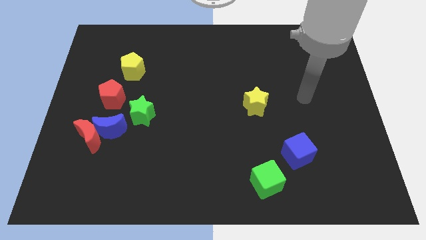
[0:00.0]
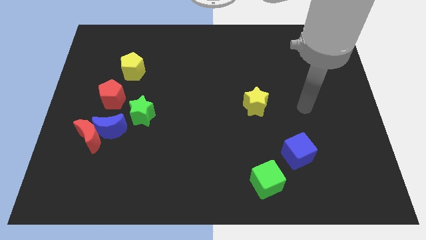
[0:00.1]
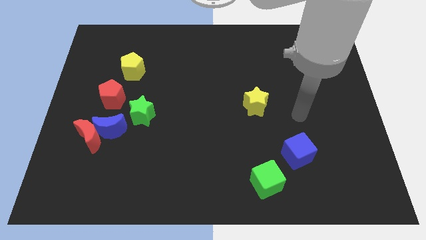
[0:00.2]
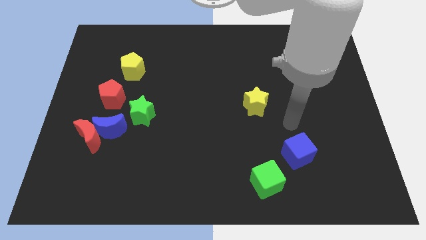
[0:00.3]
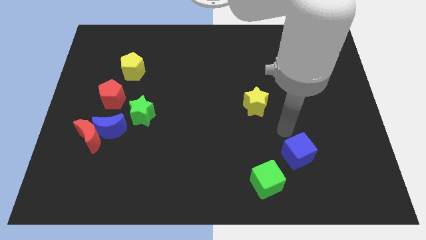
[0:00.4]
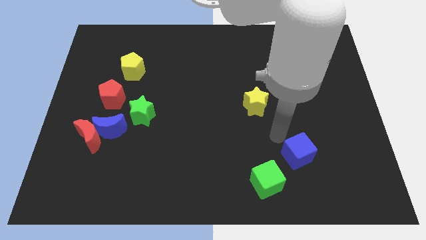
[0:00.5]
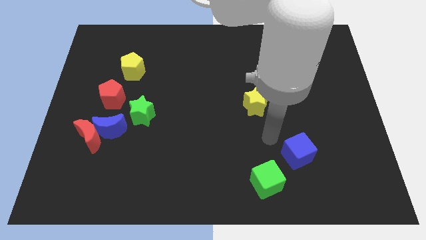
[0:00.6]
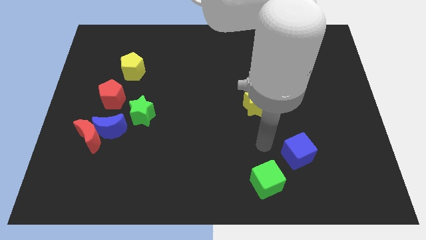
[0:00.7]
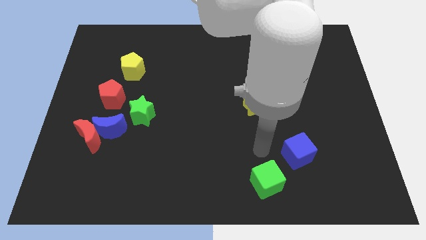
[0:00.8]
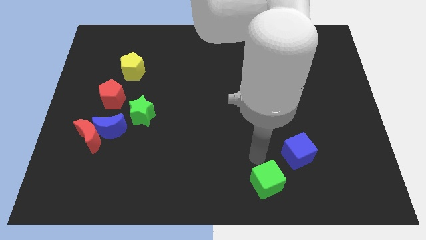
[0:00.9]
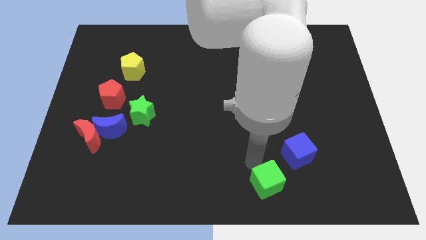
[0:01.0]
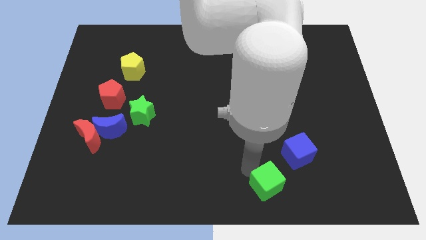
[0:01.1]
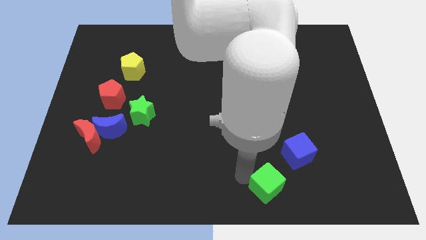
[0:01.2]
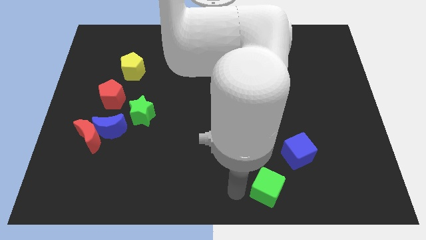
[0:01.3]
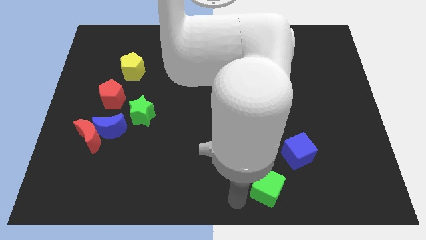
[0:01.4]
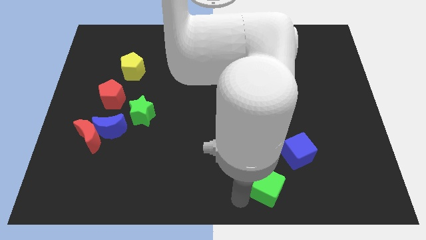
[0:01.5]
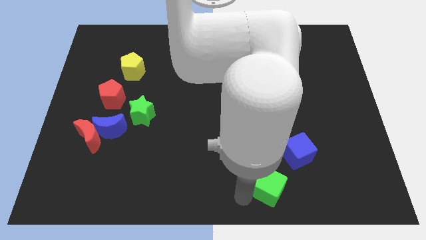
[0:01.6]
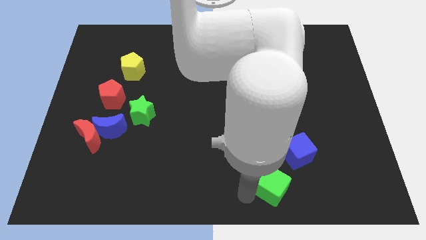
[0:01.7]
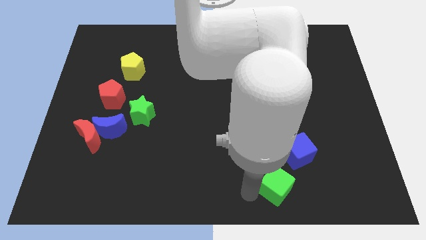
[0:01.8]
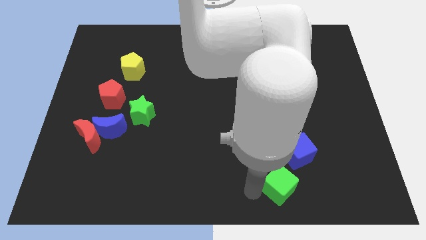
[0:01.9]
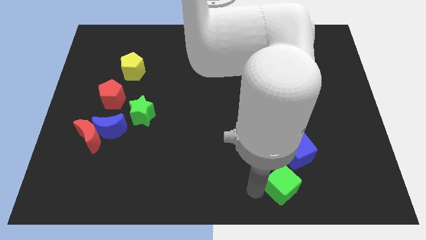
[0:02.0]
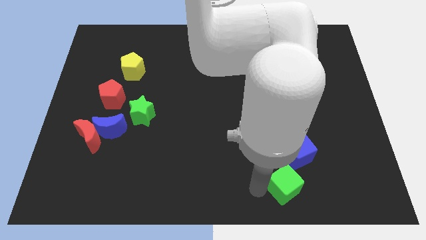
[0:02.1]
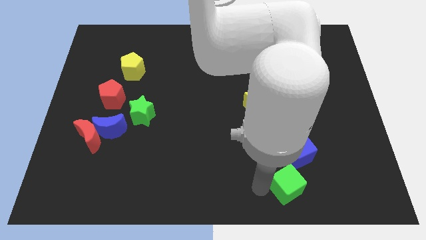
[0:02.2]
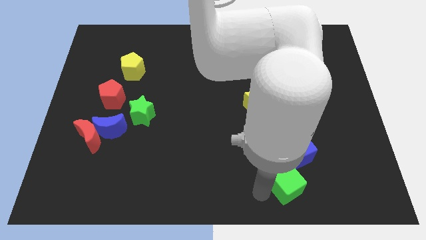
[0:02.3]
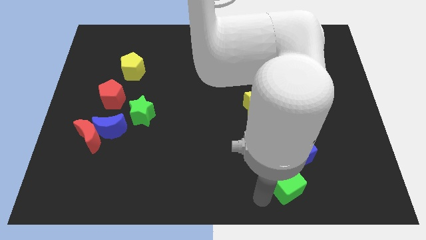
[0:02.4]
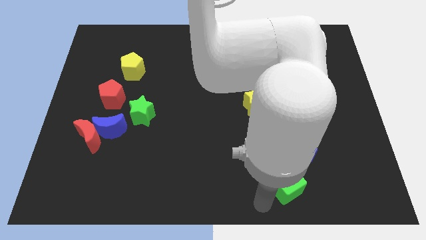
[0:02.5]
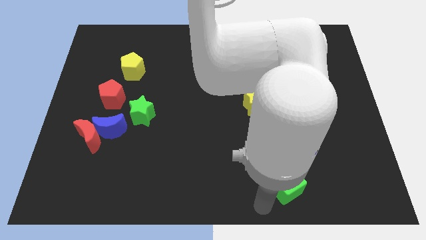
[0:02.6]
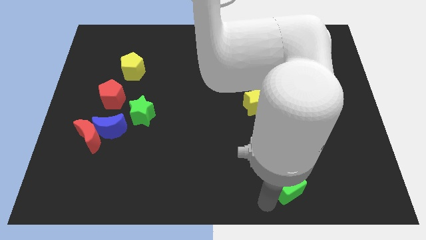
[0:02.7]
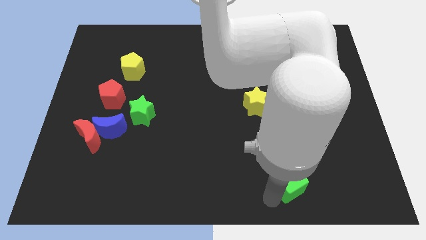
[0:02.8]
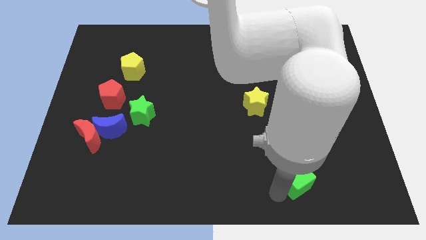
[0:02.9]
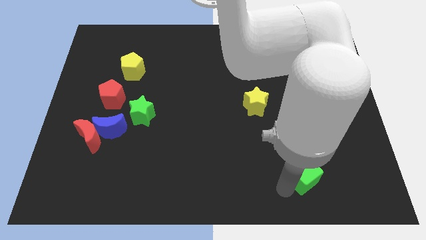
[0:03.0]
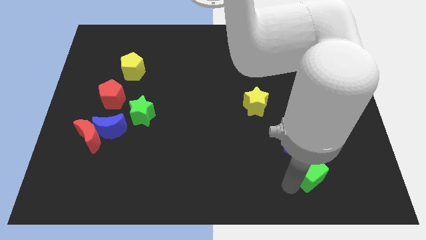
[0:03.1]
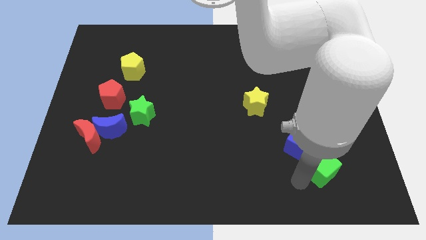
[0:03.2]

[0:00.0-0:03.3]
slightly slide the green cube up and to the right

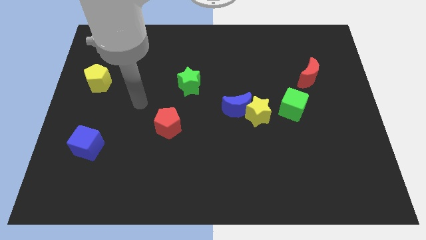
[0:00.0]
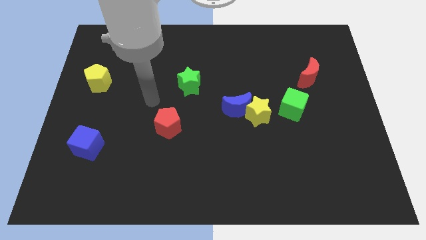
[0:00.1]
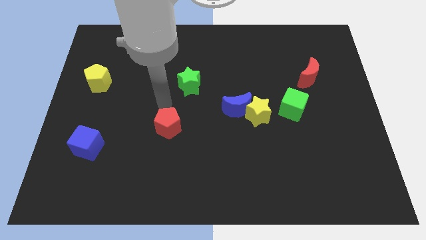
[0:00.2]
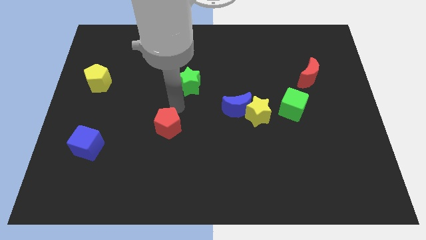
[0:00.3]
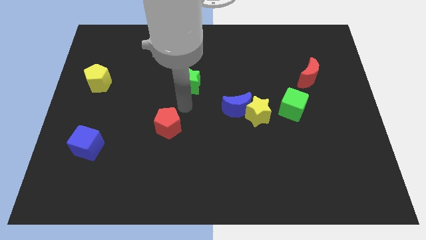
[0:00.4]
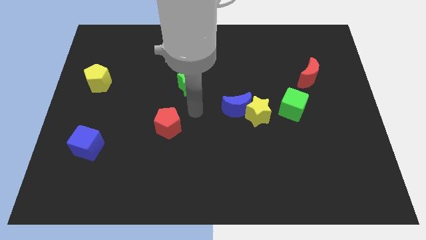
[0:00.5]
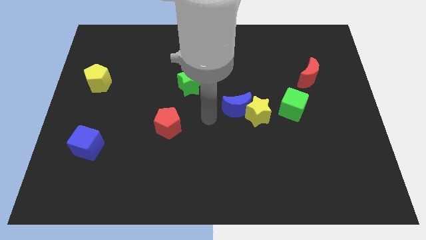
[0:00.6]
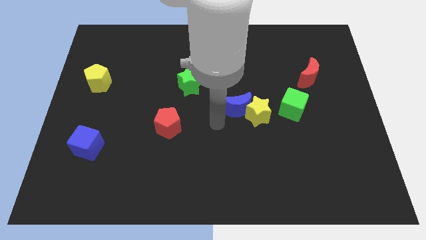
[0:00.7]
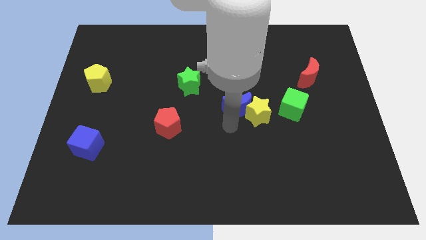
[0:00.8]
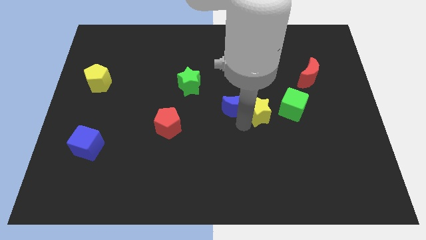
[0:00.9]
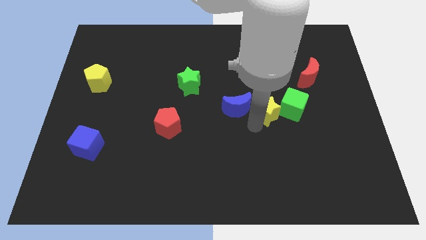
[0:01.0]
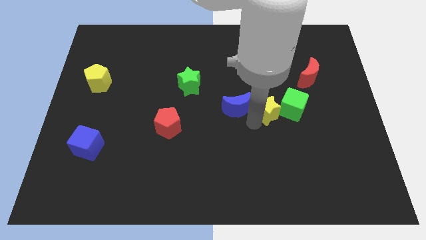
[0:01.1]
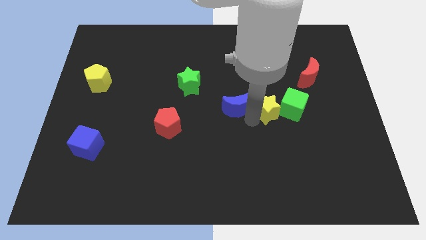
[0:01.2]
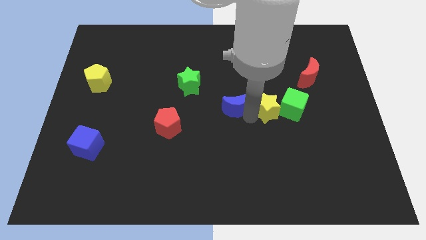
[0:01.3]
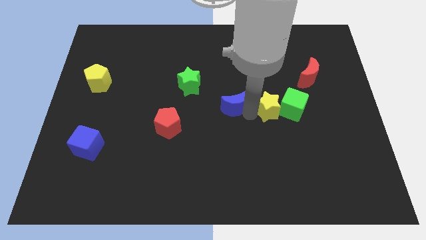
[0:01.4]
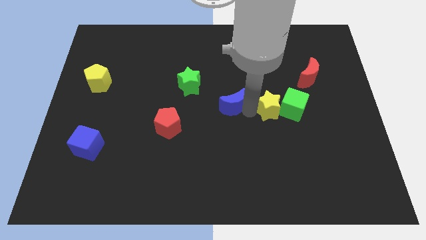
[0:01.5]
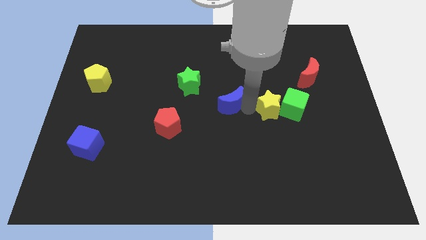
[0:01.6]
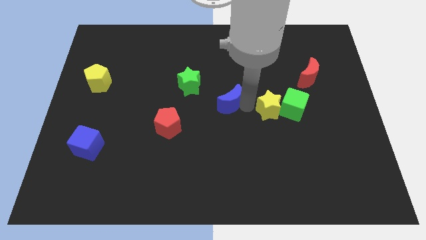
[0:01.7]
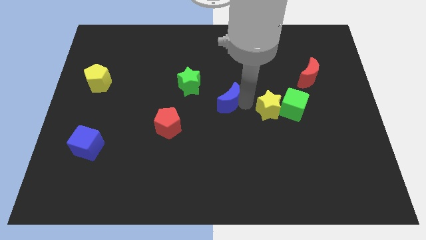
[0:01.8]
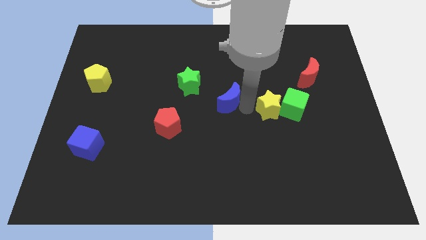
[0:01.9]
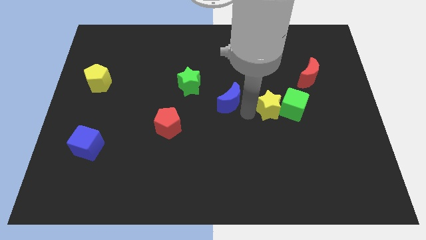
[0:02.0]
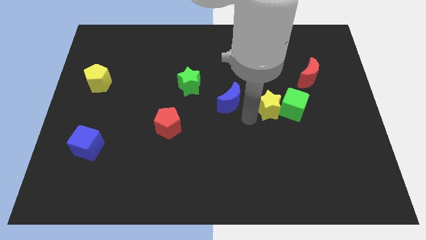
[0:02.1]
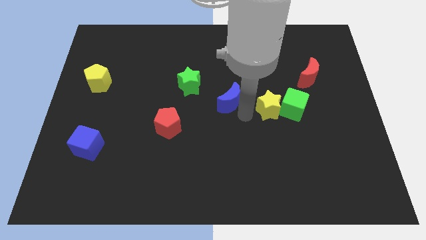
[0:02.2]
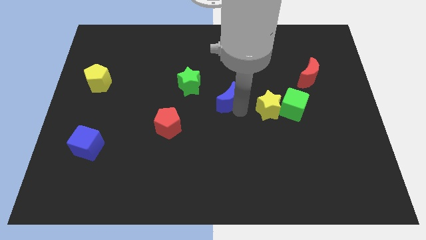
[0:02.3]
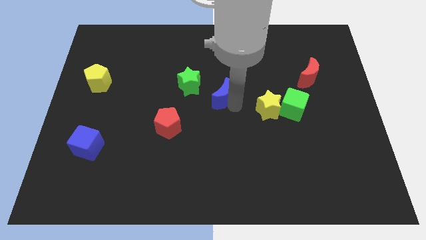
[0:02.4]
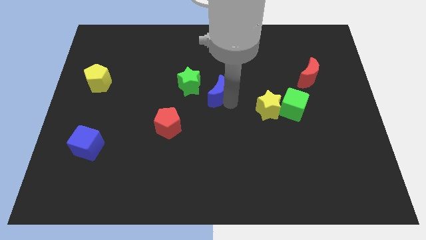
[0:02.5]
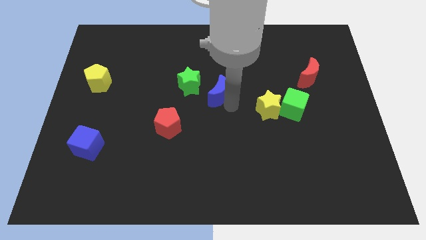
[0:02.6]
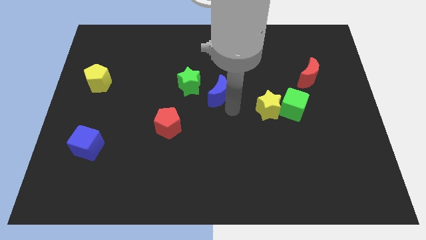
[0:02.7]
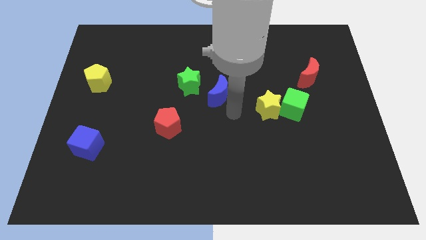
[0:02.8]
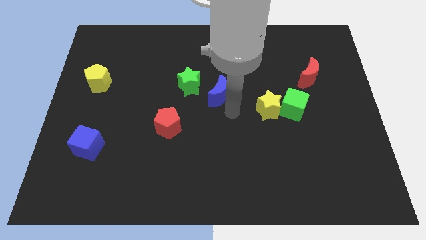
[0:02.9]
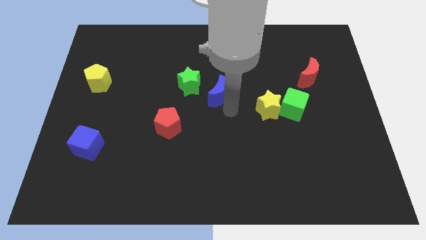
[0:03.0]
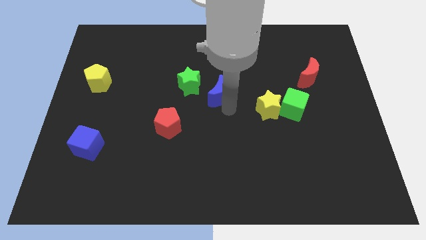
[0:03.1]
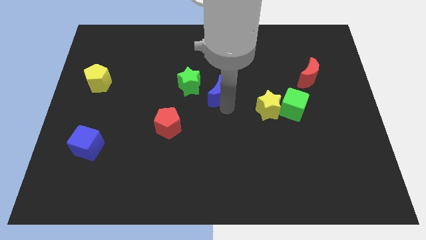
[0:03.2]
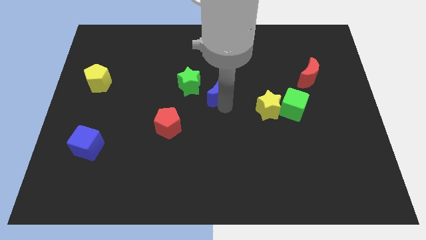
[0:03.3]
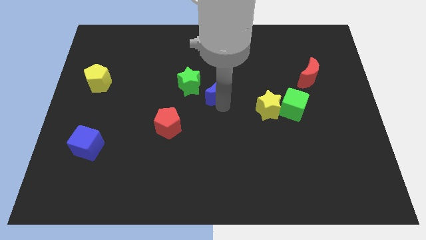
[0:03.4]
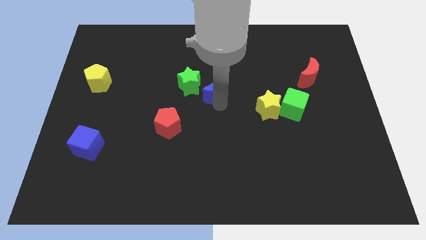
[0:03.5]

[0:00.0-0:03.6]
move the blue moon a little bit up and left diagonally

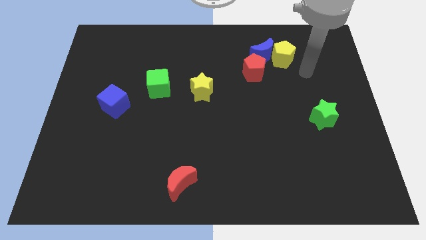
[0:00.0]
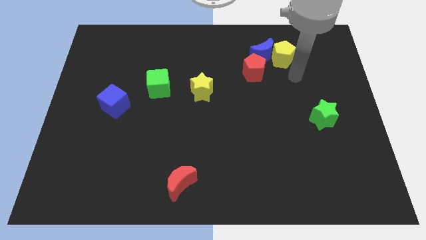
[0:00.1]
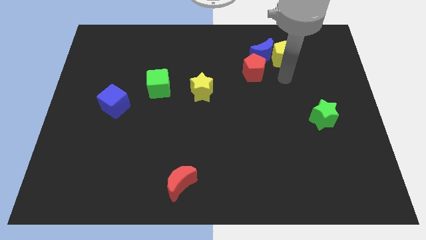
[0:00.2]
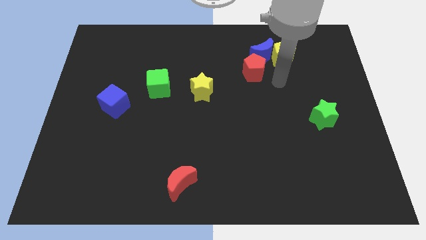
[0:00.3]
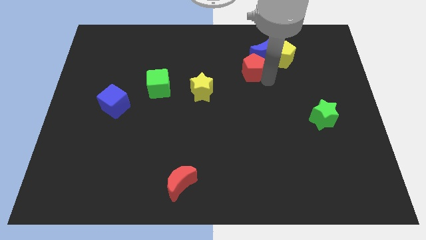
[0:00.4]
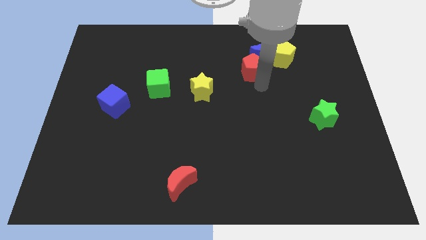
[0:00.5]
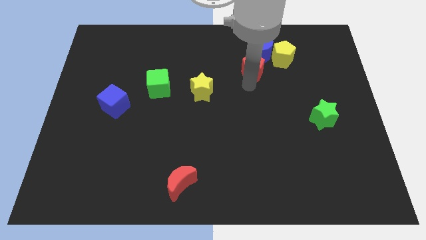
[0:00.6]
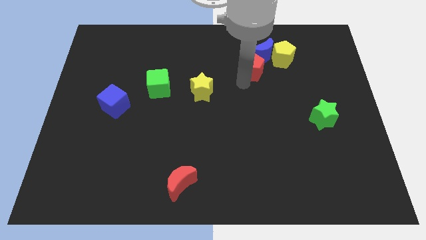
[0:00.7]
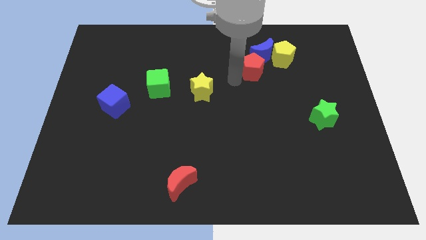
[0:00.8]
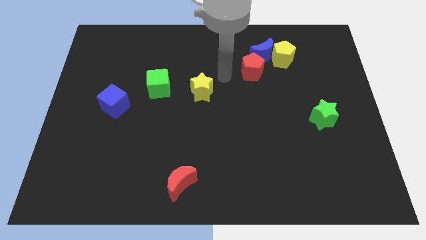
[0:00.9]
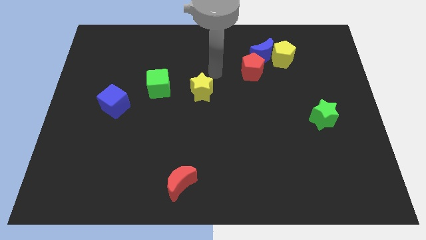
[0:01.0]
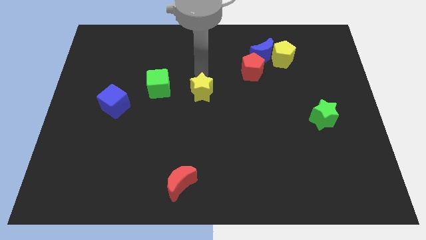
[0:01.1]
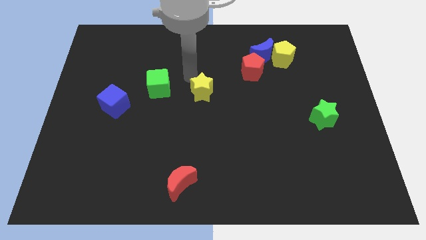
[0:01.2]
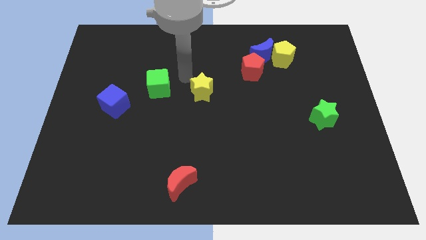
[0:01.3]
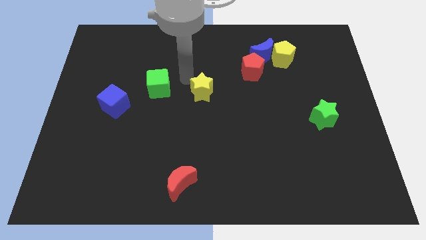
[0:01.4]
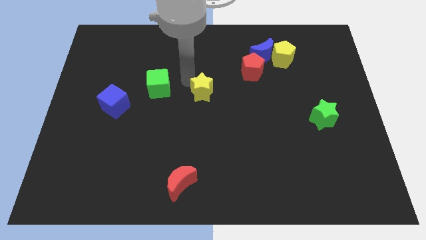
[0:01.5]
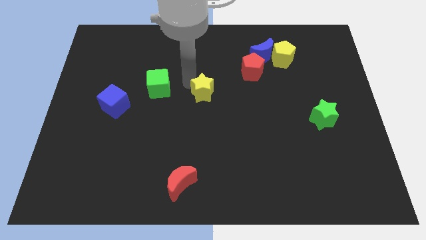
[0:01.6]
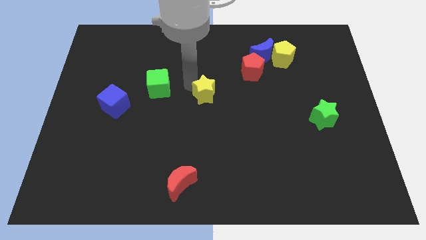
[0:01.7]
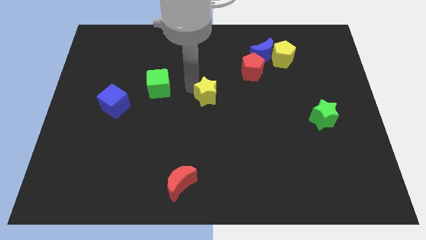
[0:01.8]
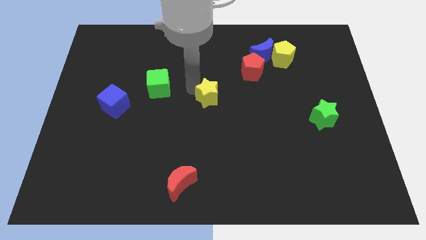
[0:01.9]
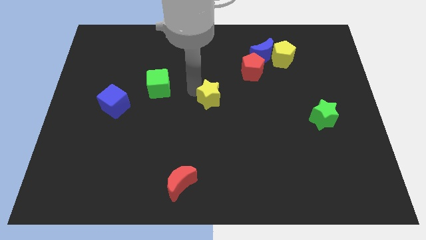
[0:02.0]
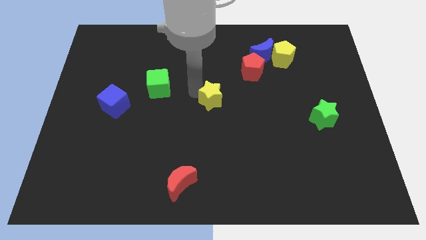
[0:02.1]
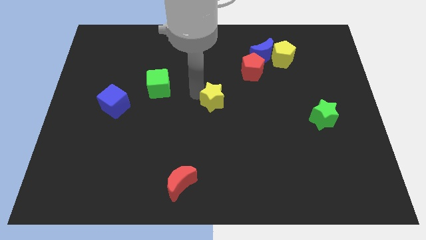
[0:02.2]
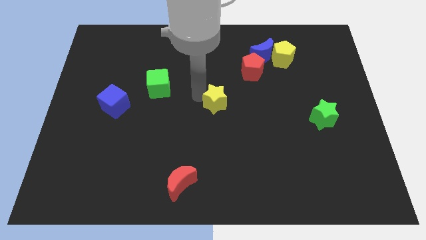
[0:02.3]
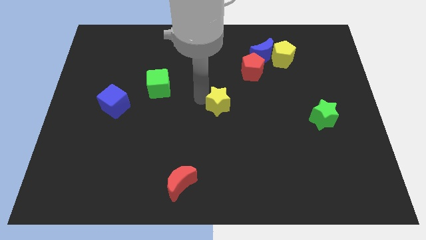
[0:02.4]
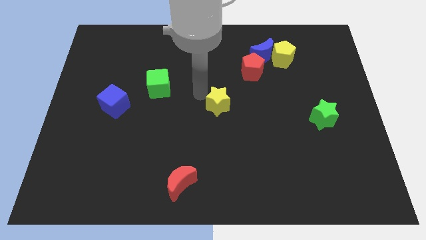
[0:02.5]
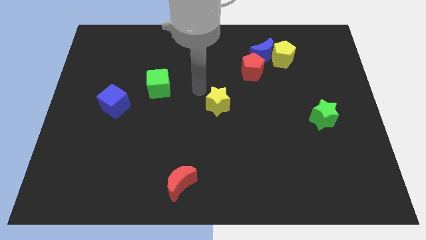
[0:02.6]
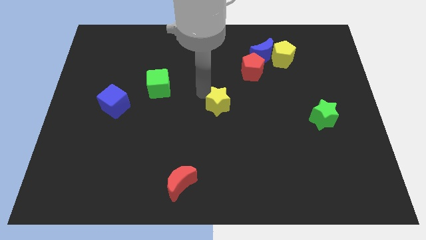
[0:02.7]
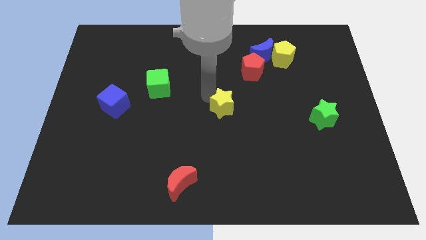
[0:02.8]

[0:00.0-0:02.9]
slightly move the yellow star downwards and to the right
